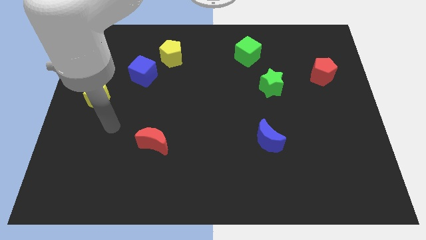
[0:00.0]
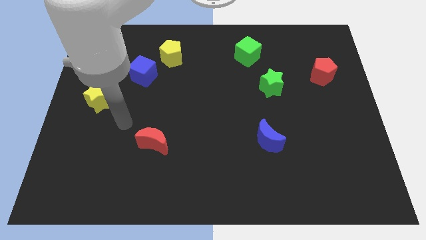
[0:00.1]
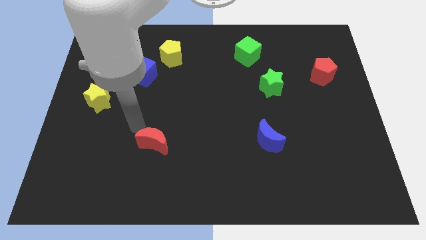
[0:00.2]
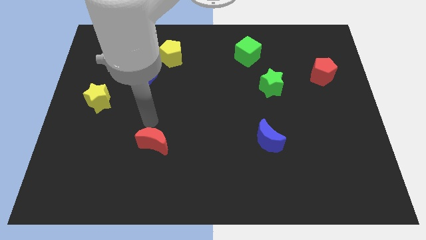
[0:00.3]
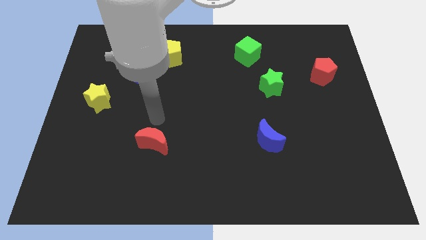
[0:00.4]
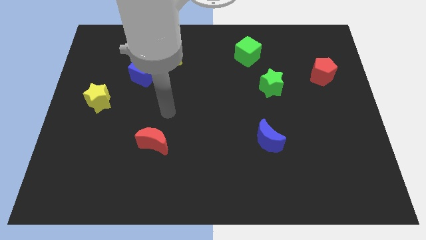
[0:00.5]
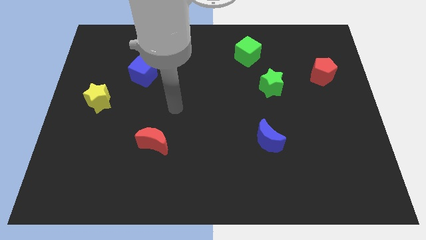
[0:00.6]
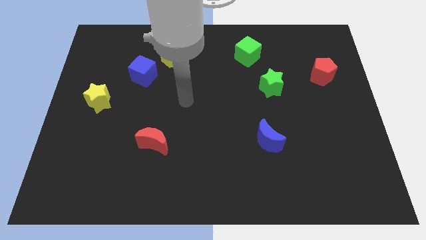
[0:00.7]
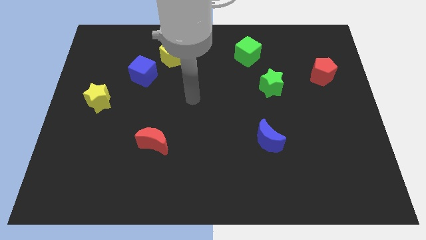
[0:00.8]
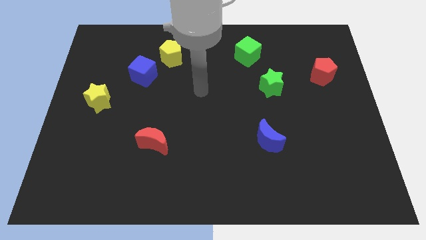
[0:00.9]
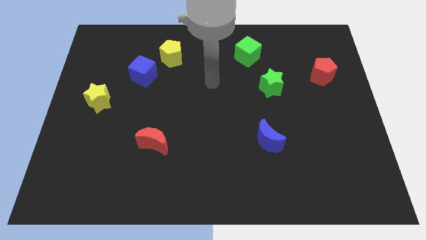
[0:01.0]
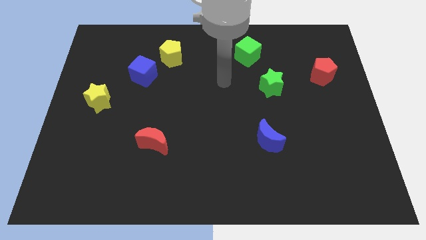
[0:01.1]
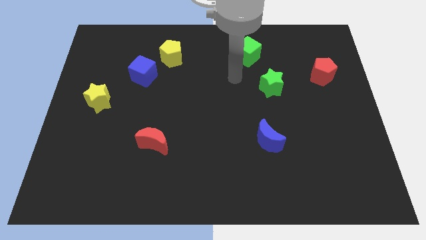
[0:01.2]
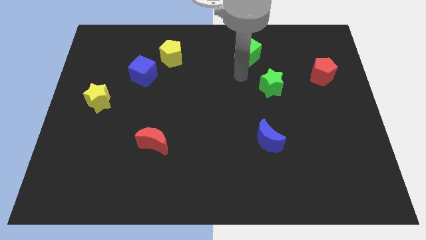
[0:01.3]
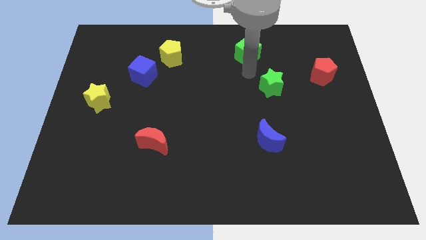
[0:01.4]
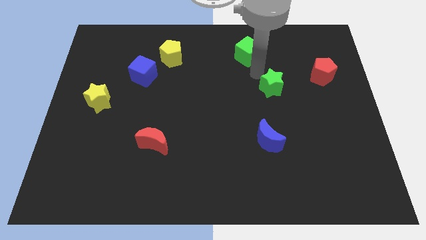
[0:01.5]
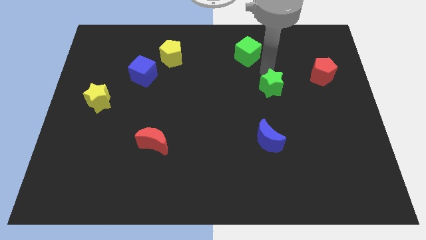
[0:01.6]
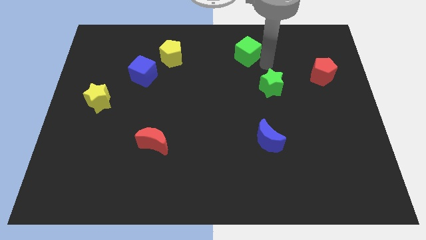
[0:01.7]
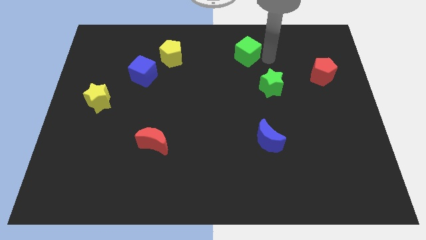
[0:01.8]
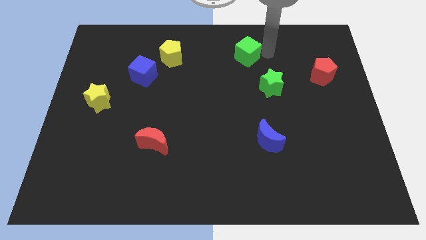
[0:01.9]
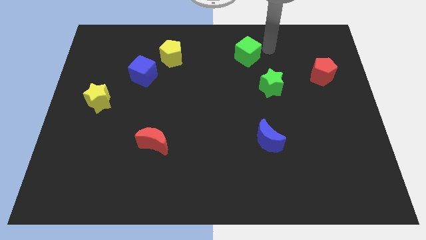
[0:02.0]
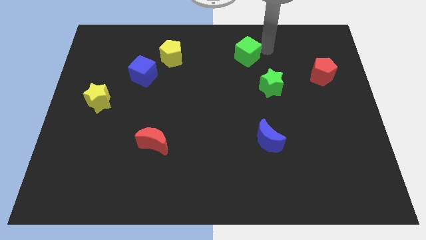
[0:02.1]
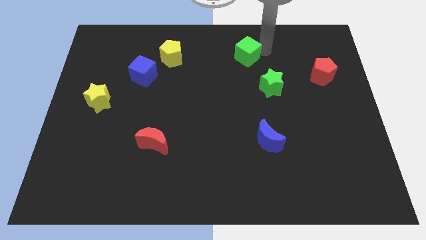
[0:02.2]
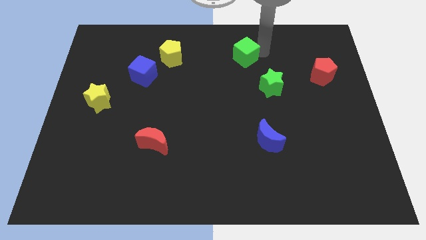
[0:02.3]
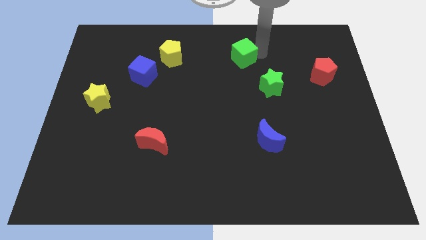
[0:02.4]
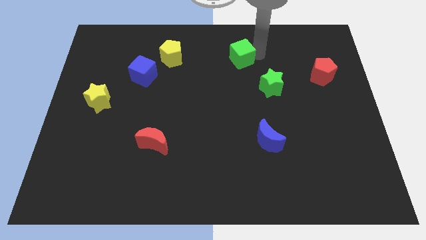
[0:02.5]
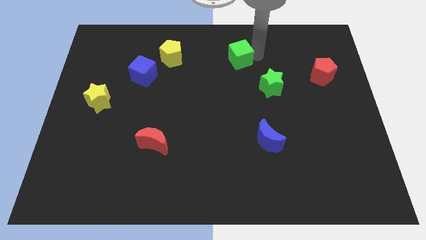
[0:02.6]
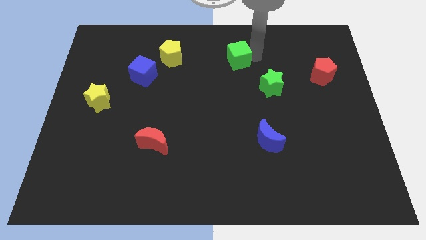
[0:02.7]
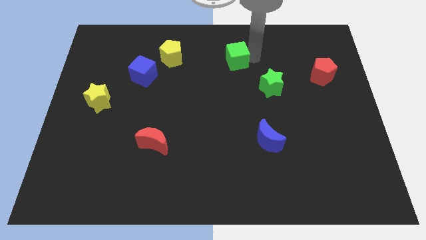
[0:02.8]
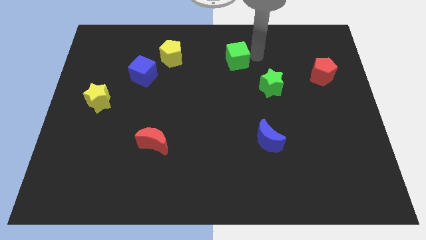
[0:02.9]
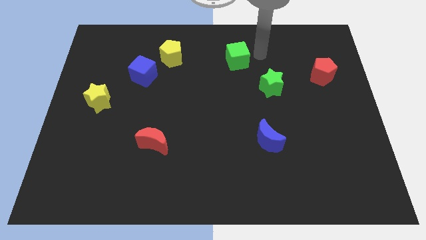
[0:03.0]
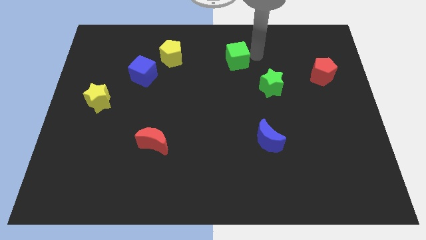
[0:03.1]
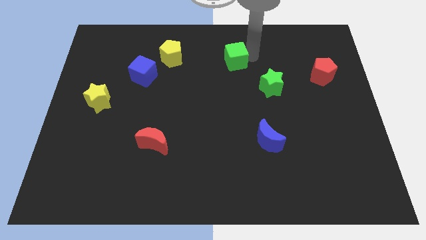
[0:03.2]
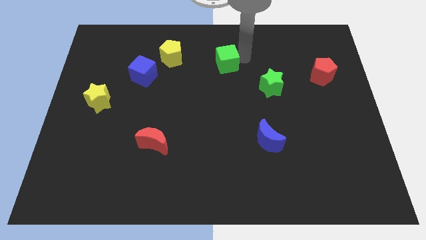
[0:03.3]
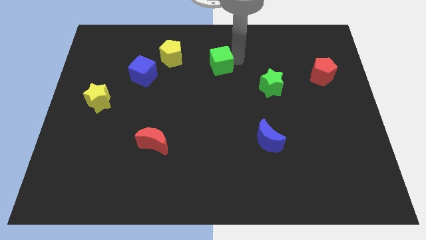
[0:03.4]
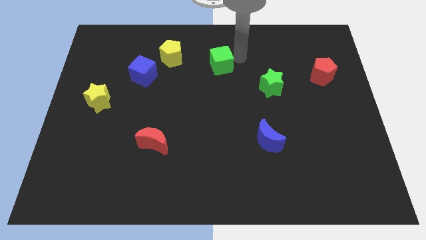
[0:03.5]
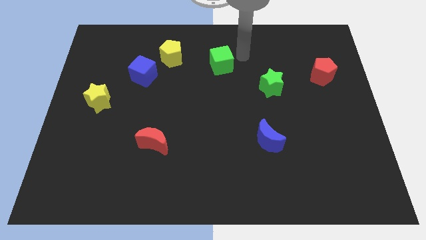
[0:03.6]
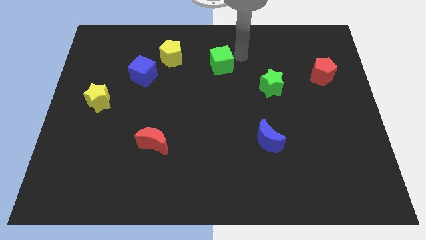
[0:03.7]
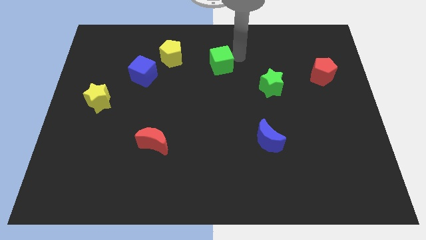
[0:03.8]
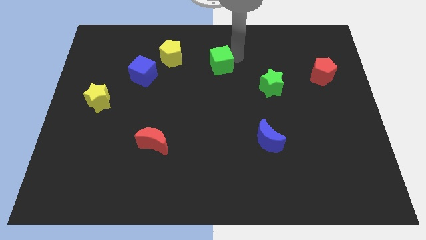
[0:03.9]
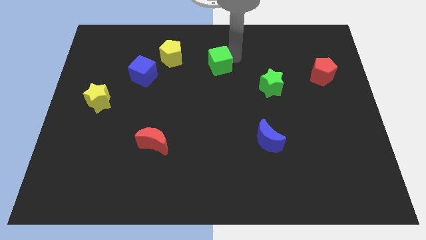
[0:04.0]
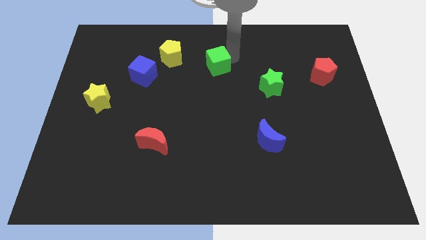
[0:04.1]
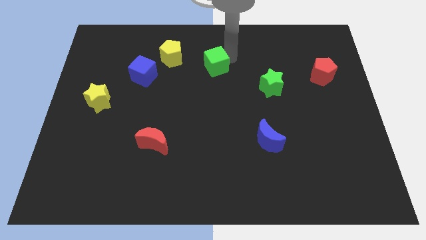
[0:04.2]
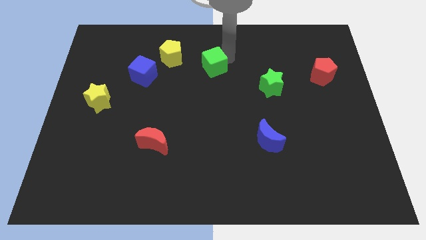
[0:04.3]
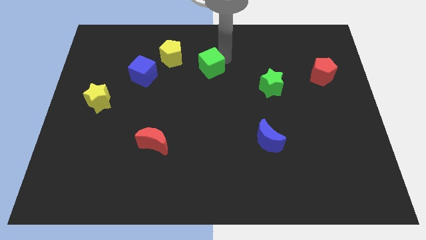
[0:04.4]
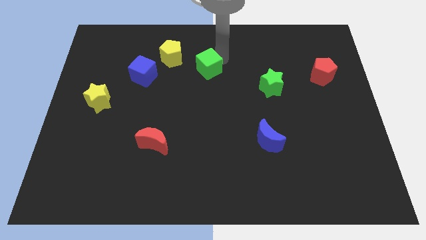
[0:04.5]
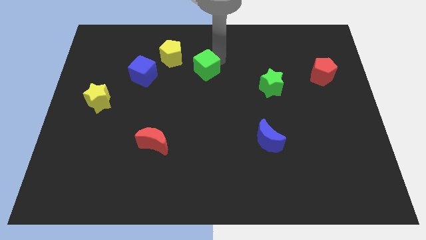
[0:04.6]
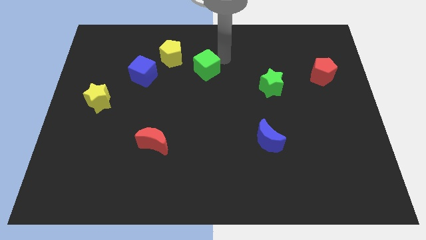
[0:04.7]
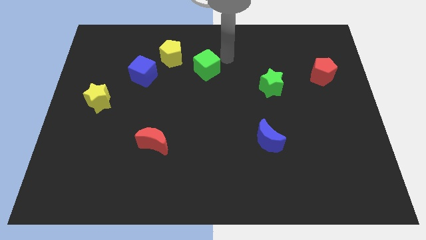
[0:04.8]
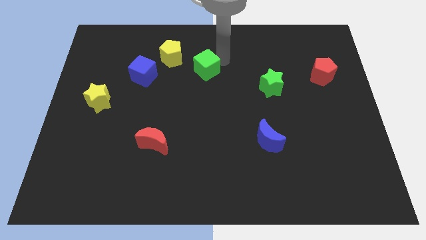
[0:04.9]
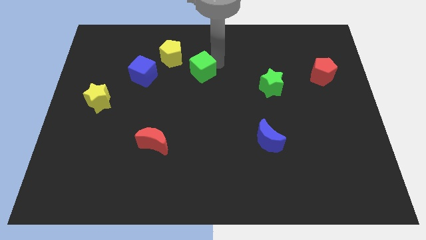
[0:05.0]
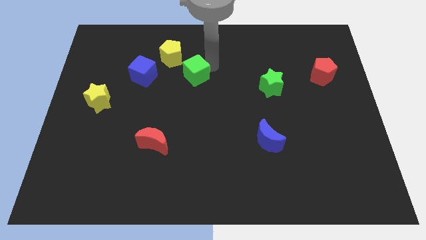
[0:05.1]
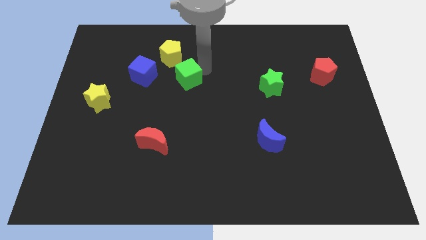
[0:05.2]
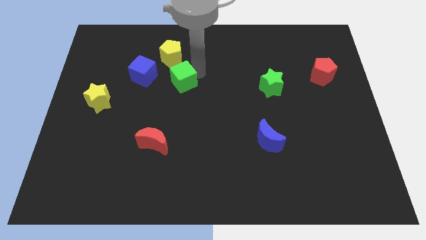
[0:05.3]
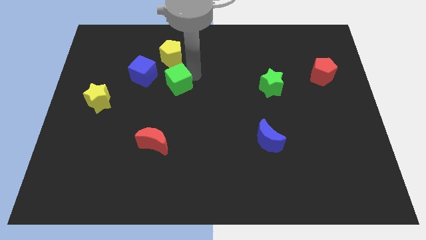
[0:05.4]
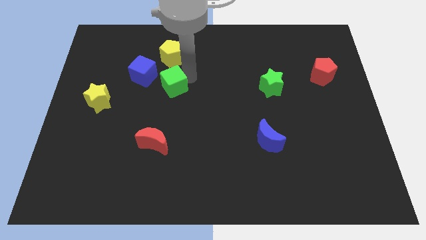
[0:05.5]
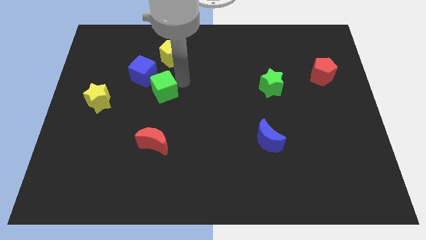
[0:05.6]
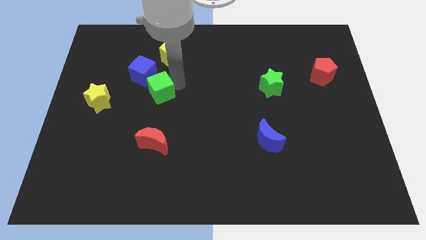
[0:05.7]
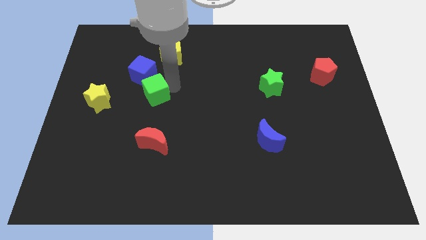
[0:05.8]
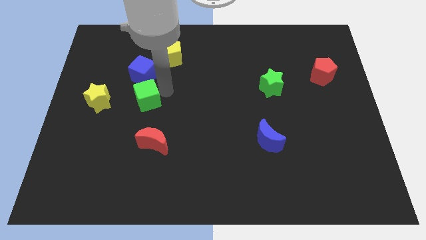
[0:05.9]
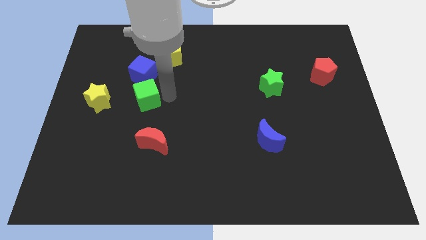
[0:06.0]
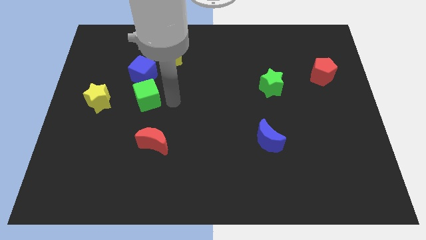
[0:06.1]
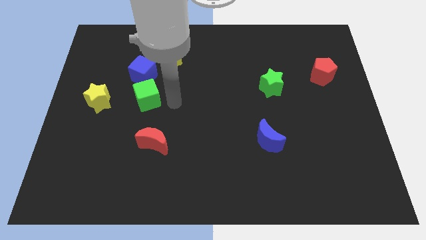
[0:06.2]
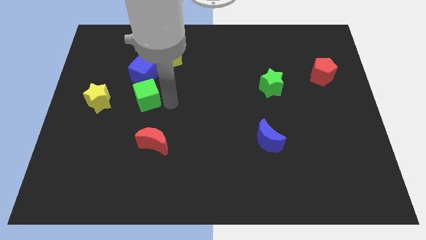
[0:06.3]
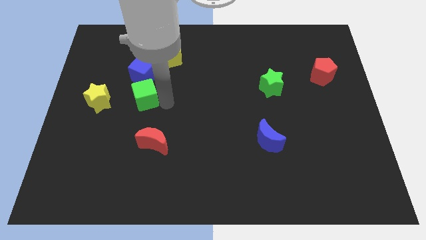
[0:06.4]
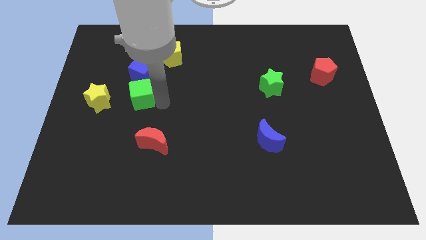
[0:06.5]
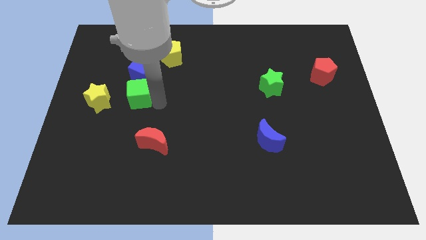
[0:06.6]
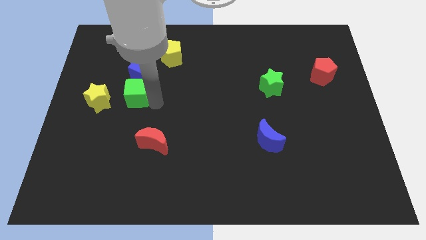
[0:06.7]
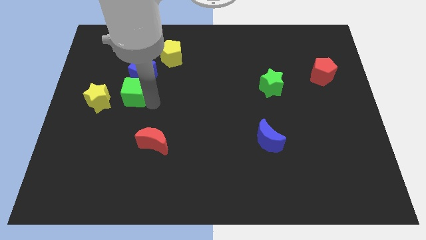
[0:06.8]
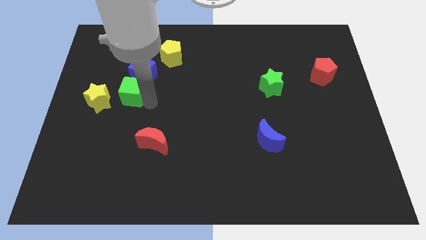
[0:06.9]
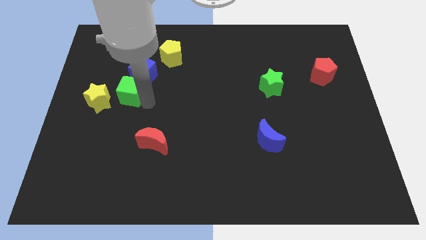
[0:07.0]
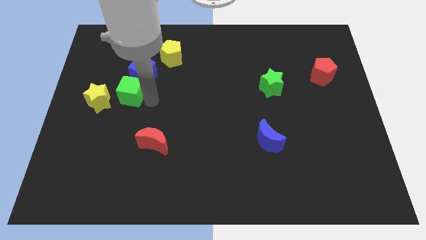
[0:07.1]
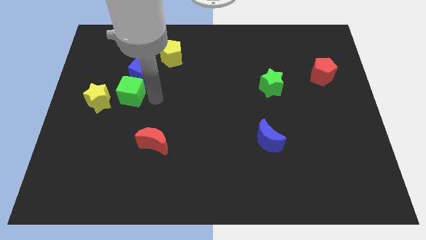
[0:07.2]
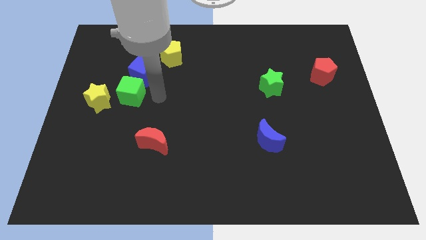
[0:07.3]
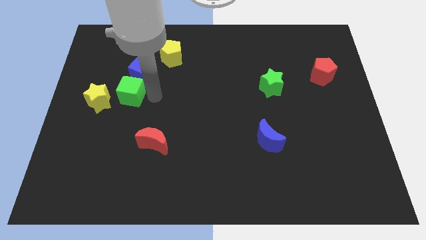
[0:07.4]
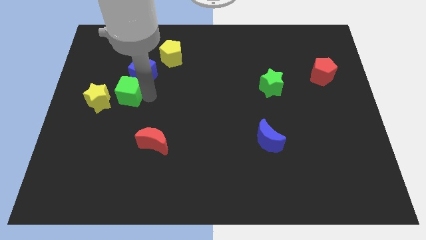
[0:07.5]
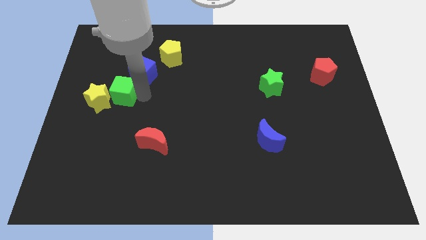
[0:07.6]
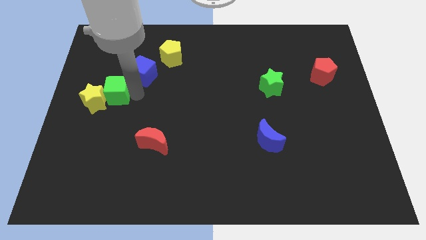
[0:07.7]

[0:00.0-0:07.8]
move the green cube to the yellow star
